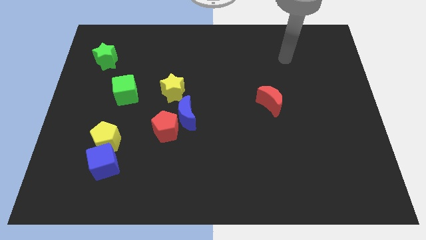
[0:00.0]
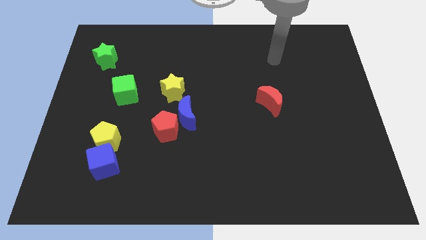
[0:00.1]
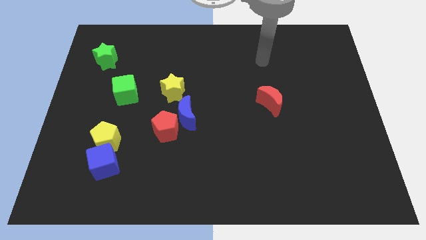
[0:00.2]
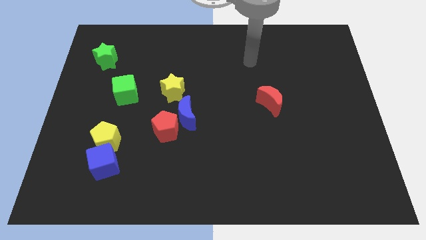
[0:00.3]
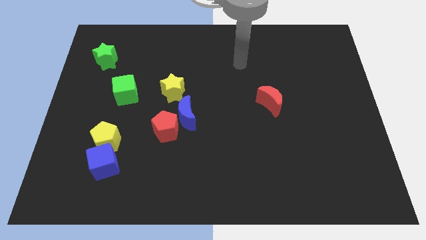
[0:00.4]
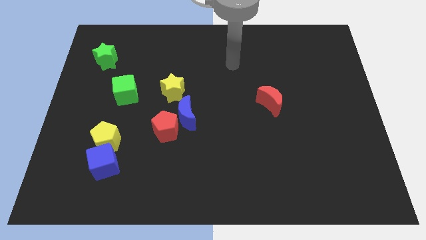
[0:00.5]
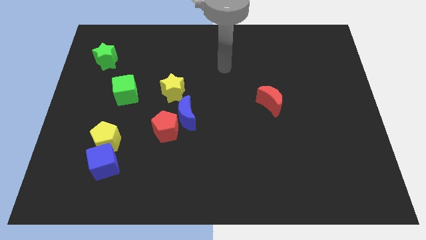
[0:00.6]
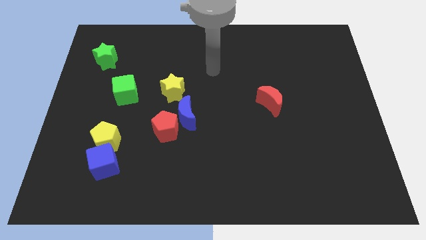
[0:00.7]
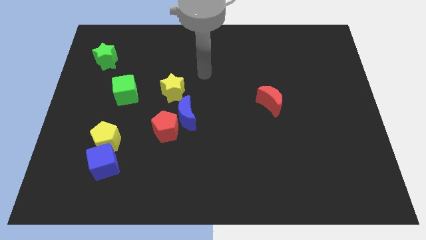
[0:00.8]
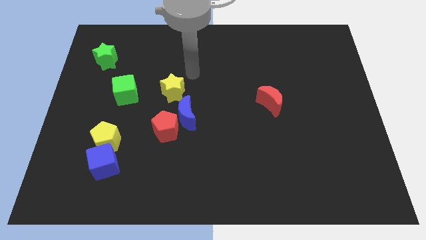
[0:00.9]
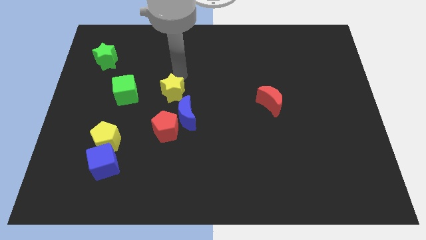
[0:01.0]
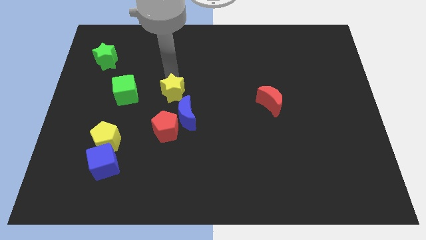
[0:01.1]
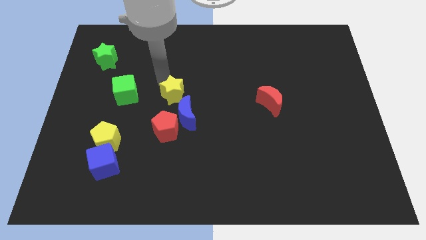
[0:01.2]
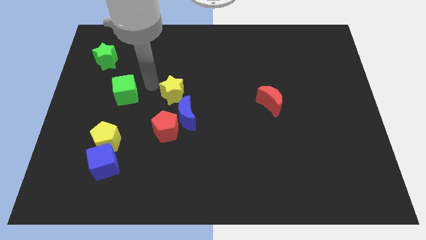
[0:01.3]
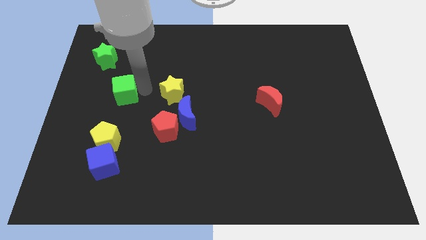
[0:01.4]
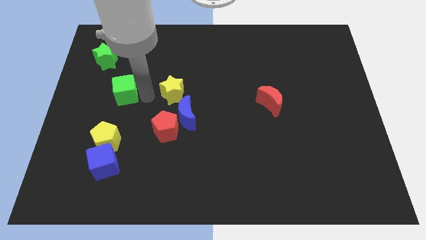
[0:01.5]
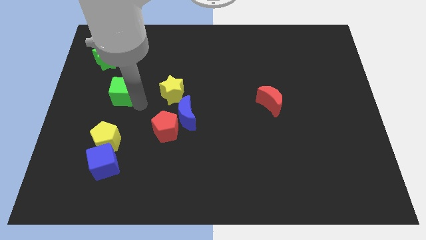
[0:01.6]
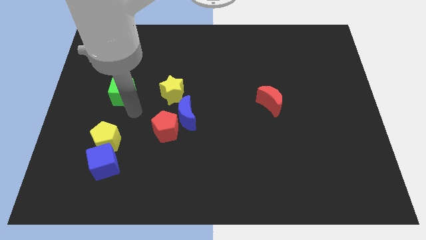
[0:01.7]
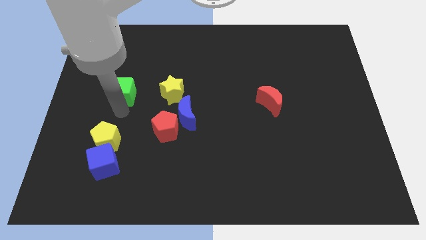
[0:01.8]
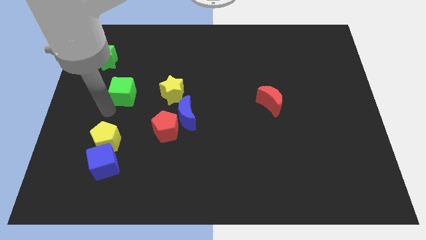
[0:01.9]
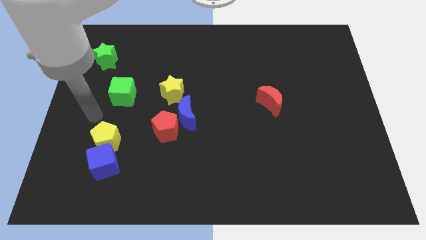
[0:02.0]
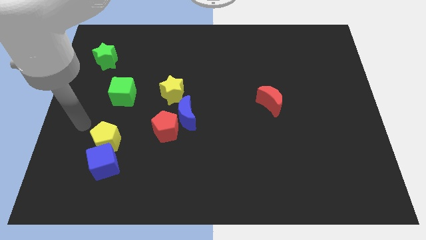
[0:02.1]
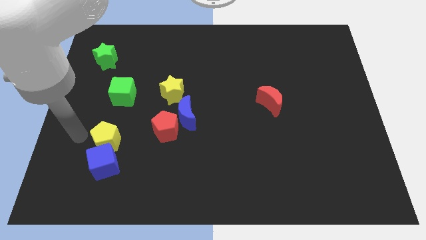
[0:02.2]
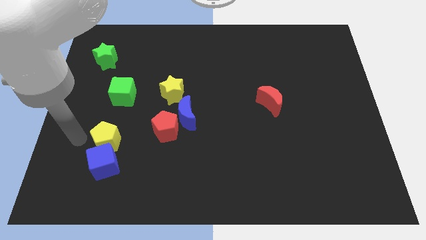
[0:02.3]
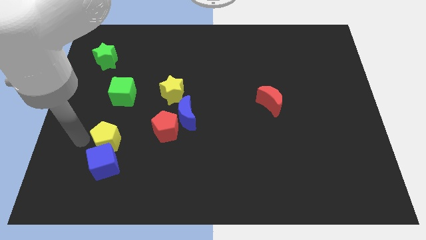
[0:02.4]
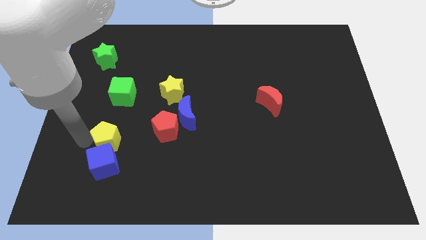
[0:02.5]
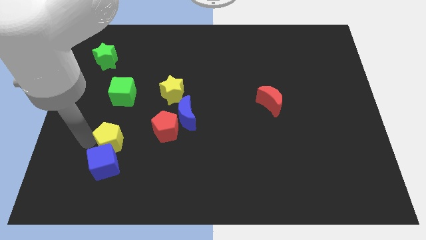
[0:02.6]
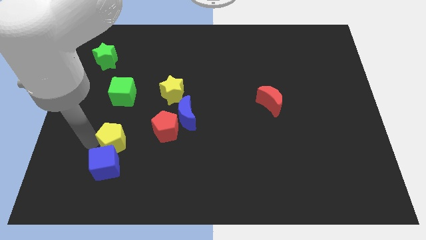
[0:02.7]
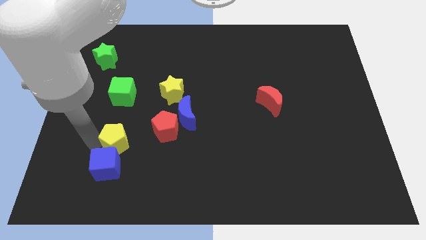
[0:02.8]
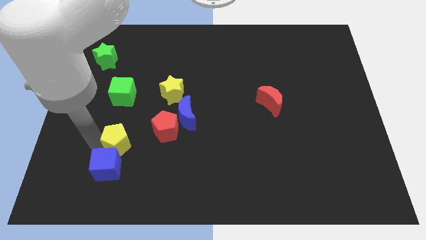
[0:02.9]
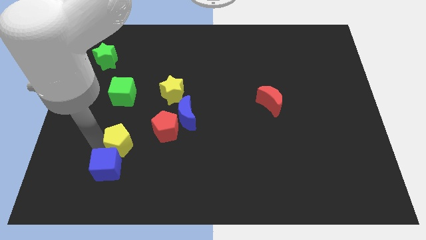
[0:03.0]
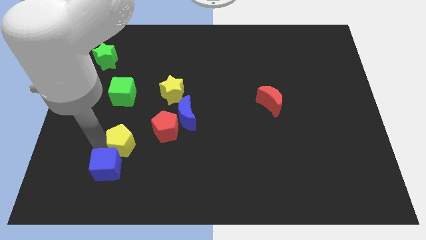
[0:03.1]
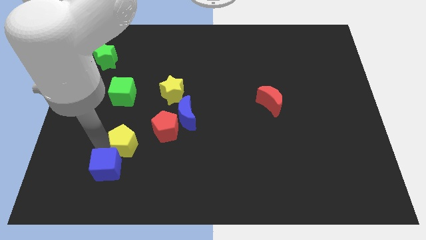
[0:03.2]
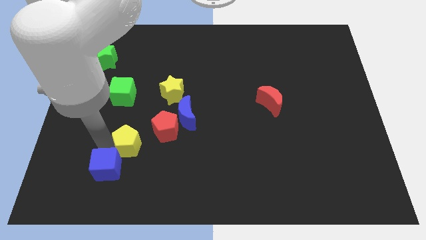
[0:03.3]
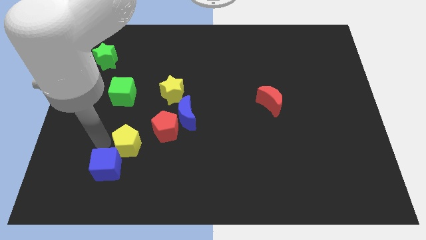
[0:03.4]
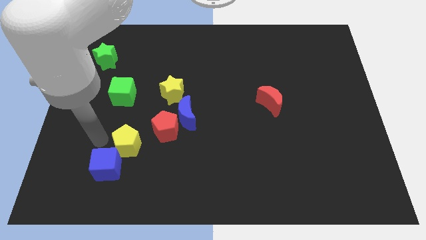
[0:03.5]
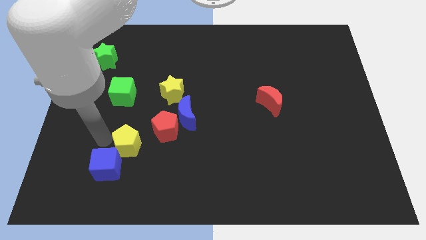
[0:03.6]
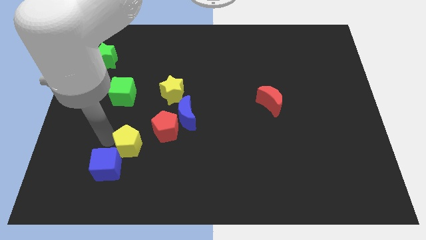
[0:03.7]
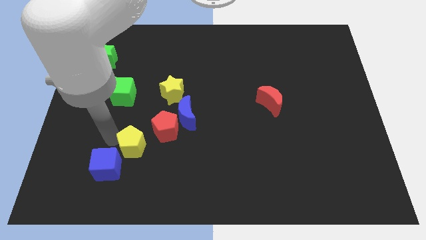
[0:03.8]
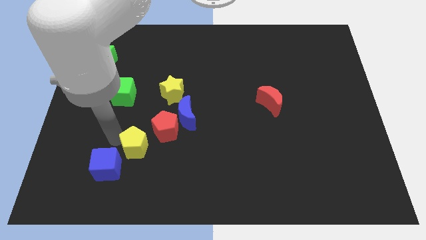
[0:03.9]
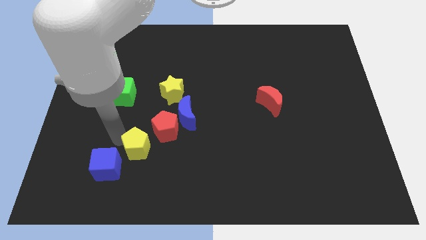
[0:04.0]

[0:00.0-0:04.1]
slightly slide the yellow pentagon to the right

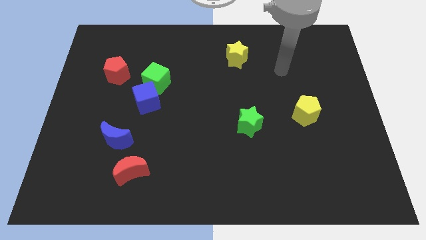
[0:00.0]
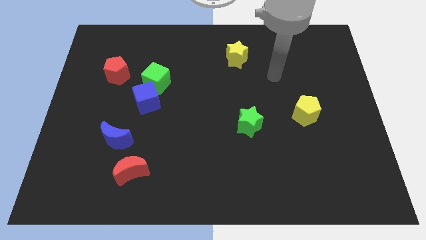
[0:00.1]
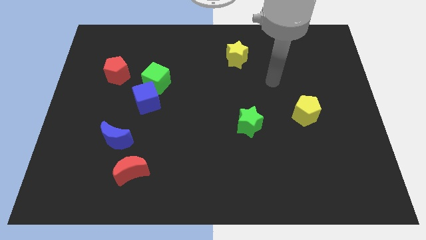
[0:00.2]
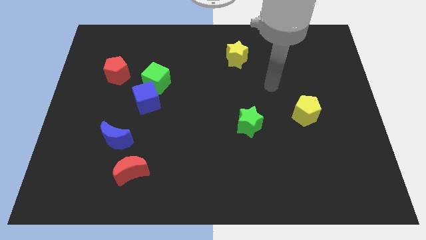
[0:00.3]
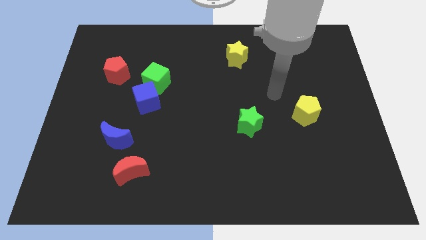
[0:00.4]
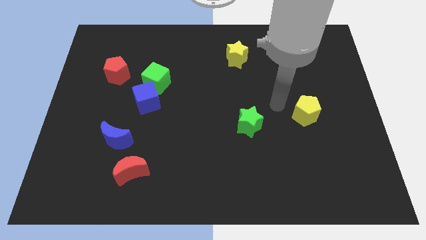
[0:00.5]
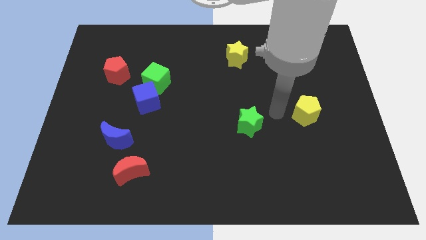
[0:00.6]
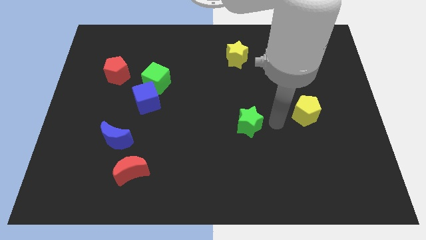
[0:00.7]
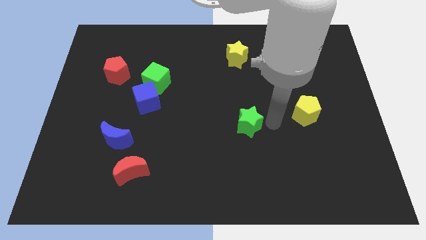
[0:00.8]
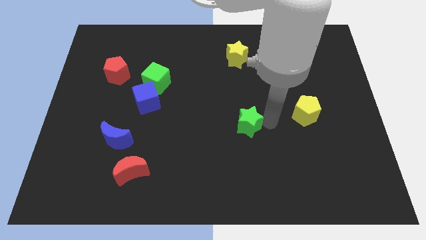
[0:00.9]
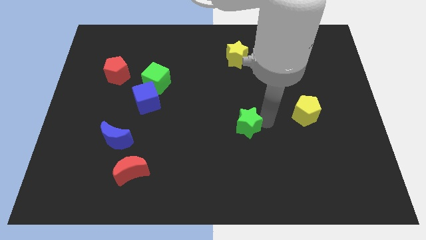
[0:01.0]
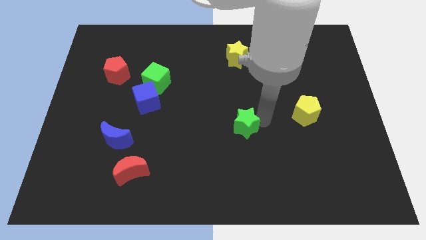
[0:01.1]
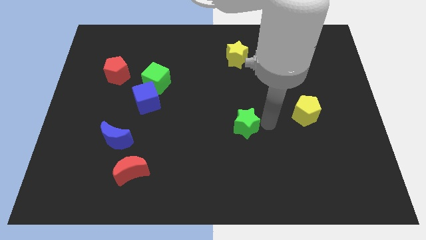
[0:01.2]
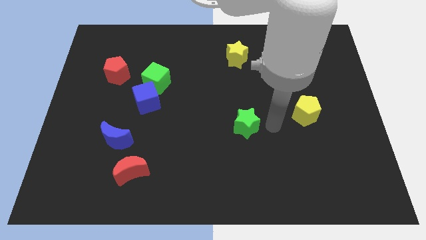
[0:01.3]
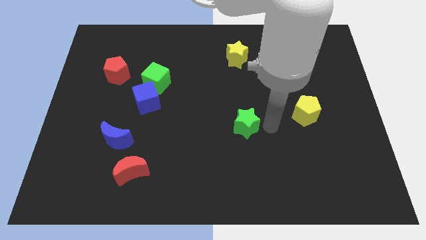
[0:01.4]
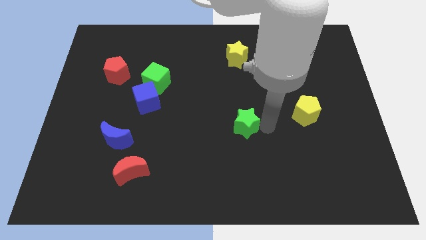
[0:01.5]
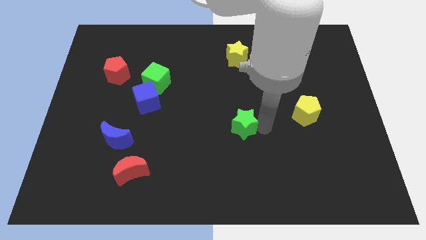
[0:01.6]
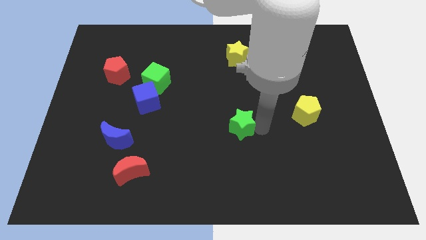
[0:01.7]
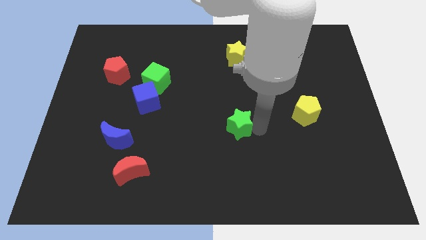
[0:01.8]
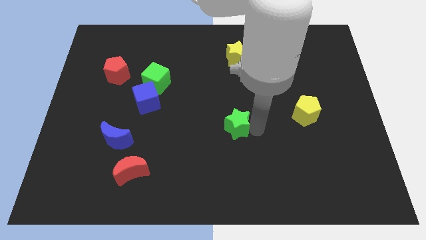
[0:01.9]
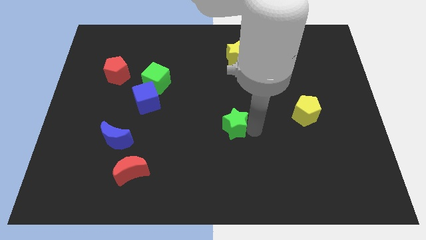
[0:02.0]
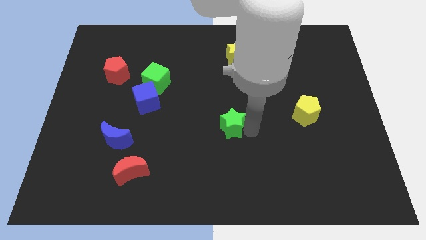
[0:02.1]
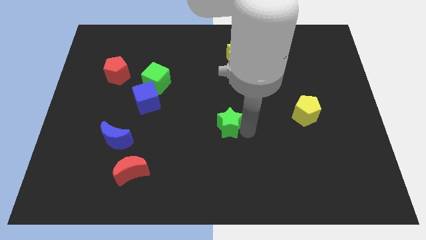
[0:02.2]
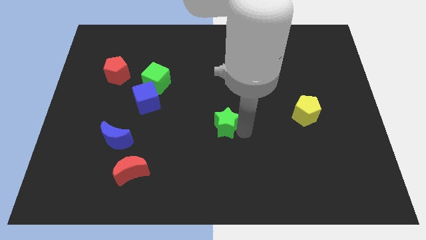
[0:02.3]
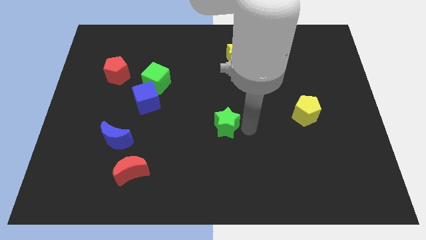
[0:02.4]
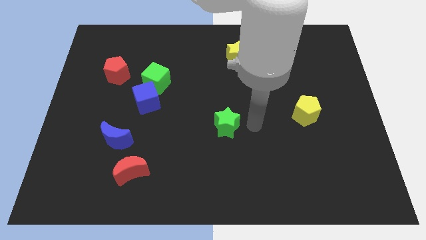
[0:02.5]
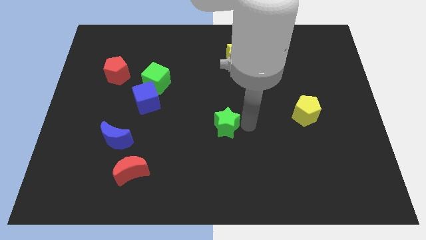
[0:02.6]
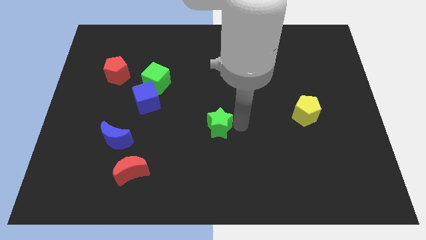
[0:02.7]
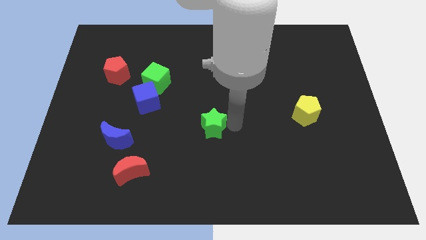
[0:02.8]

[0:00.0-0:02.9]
slide the green star a little bit to the left
